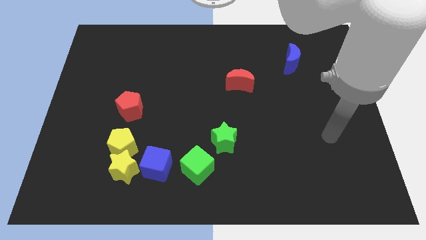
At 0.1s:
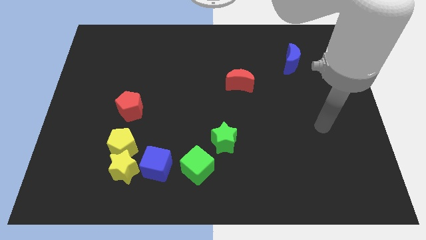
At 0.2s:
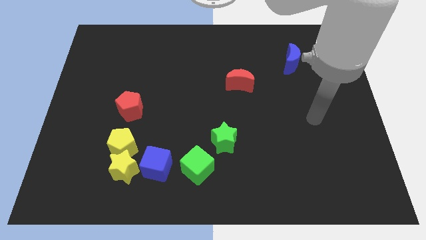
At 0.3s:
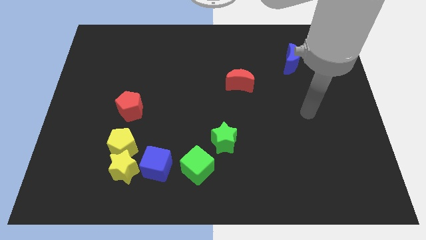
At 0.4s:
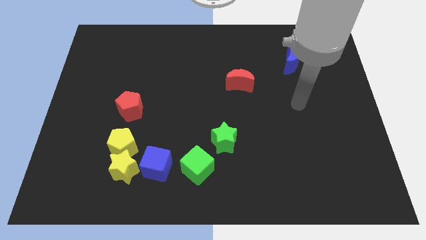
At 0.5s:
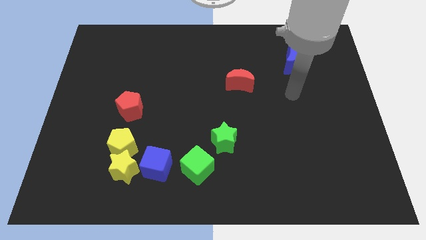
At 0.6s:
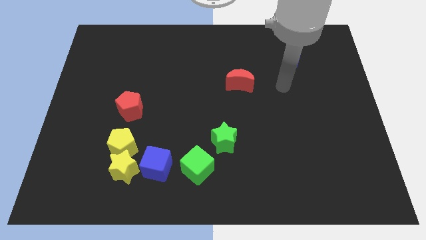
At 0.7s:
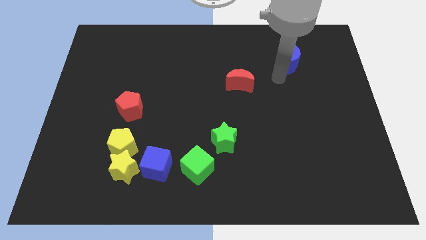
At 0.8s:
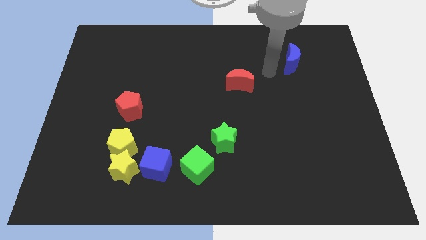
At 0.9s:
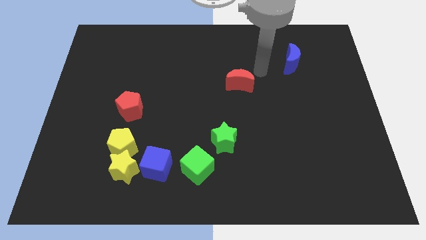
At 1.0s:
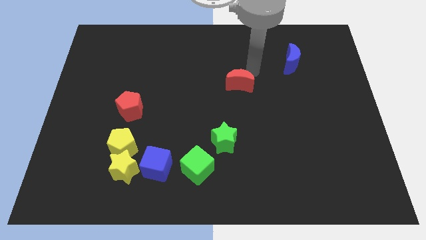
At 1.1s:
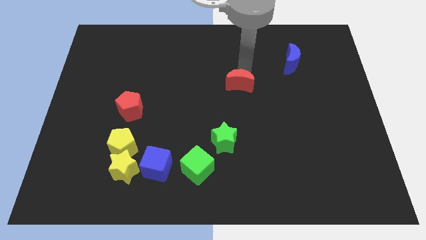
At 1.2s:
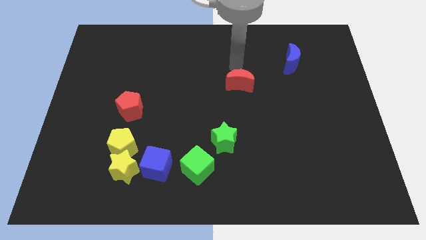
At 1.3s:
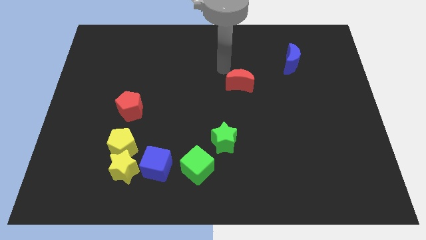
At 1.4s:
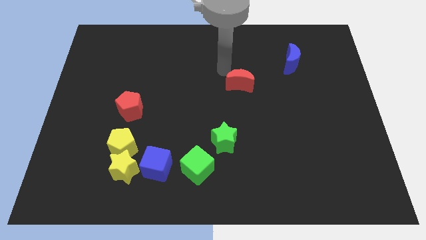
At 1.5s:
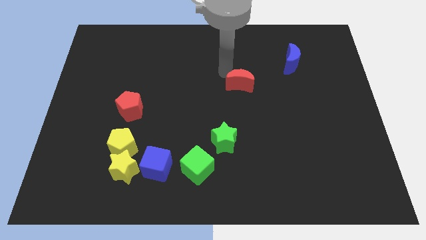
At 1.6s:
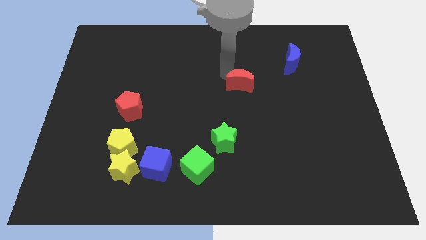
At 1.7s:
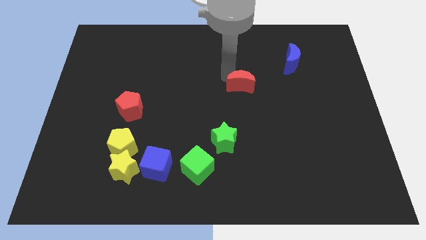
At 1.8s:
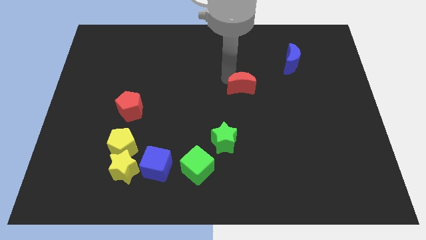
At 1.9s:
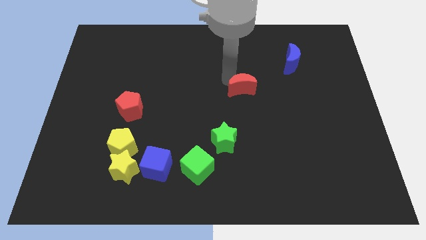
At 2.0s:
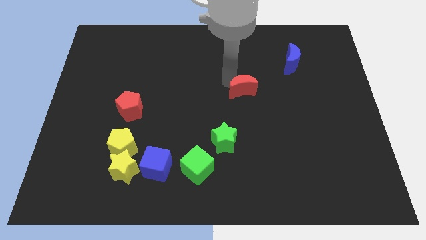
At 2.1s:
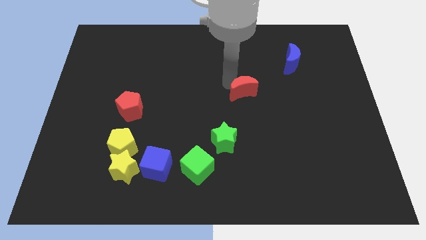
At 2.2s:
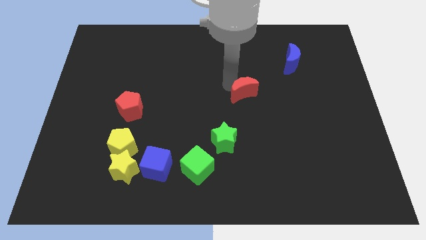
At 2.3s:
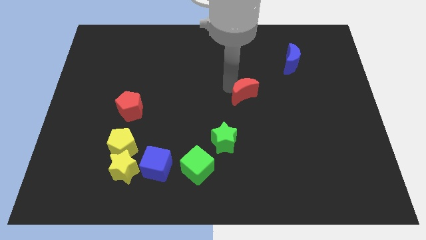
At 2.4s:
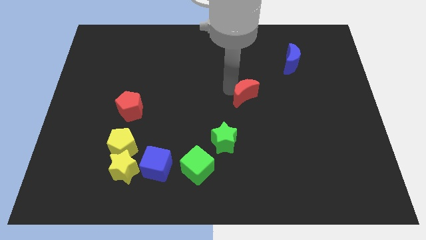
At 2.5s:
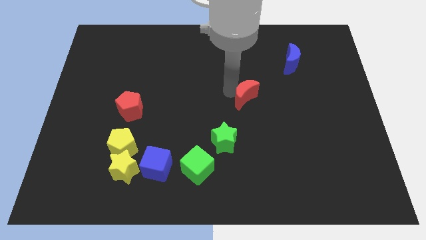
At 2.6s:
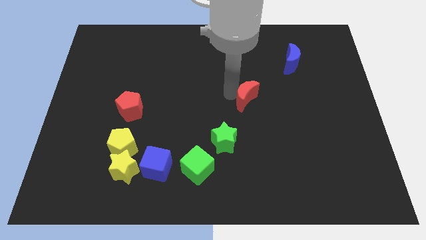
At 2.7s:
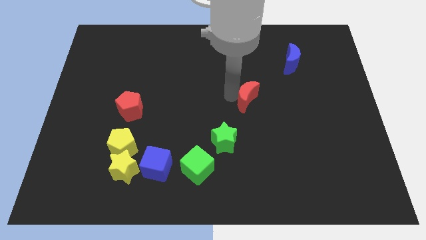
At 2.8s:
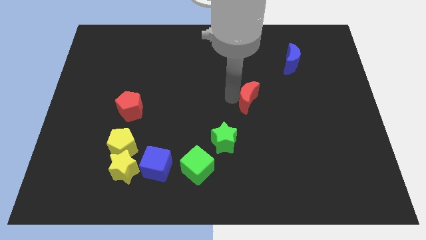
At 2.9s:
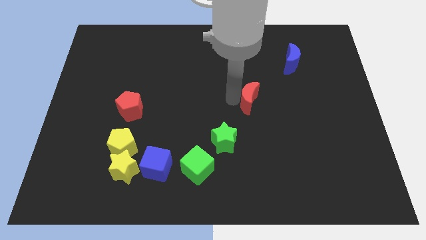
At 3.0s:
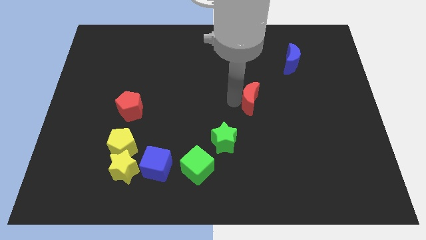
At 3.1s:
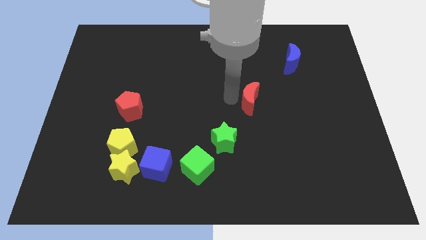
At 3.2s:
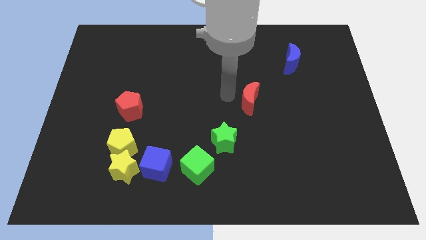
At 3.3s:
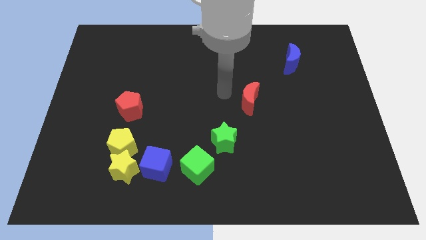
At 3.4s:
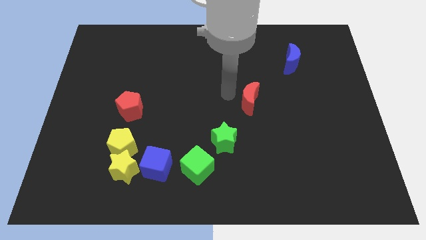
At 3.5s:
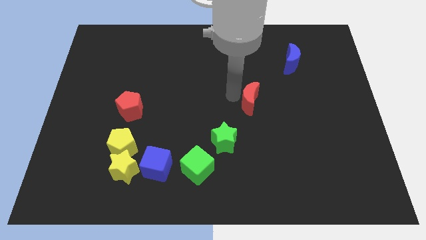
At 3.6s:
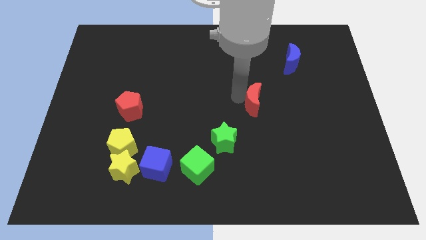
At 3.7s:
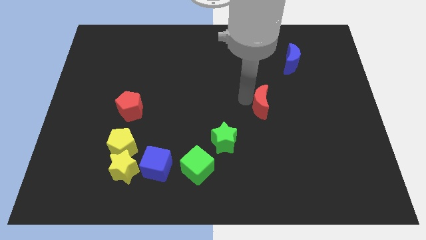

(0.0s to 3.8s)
move the red moon a bit downwards and right diagonally

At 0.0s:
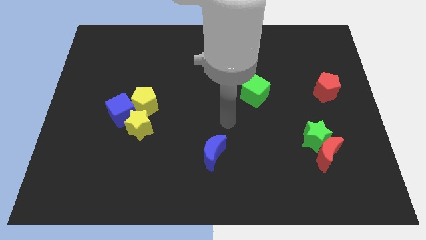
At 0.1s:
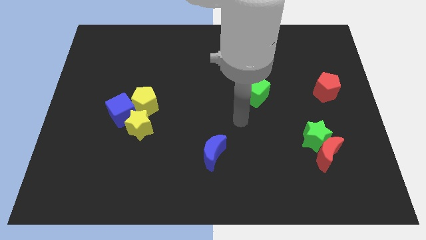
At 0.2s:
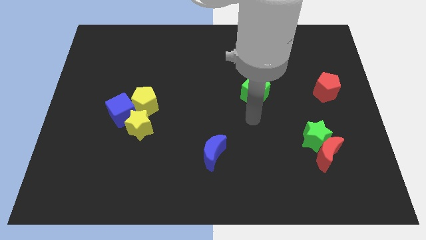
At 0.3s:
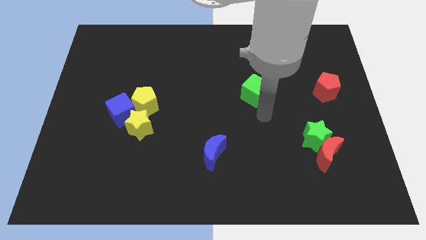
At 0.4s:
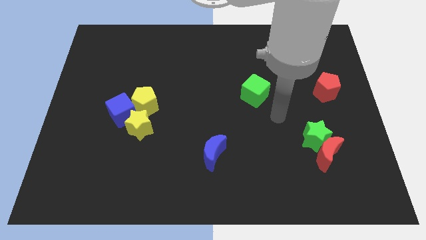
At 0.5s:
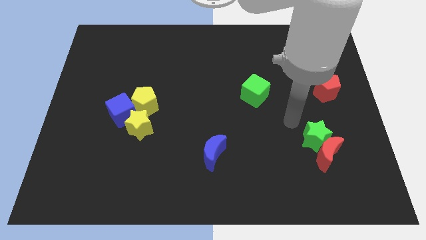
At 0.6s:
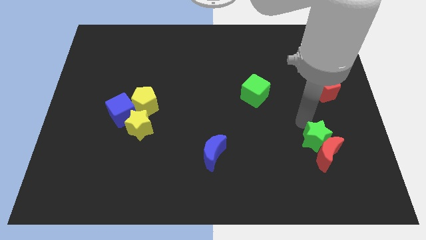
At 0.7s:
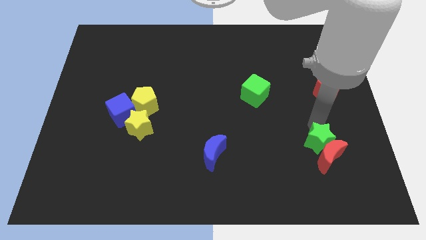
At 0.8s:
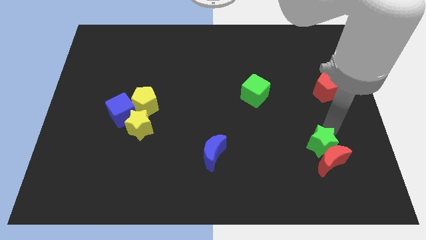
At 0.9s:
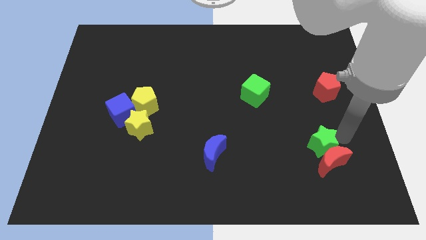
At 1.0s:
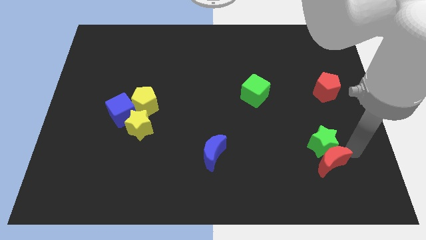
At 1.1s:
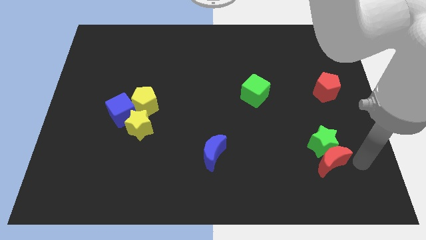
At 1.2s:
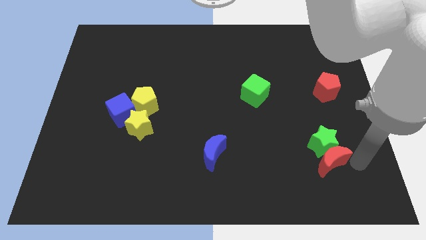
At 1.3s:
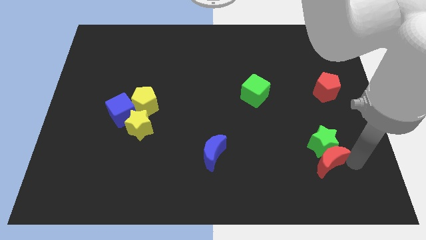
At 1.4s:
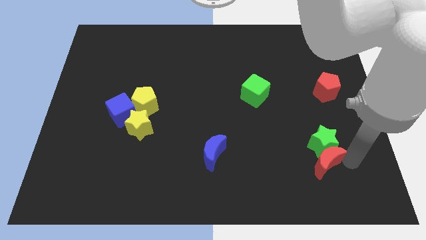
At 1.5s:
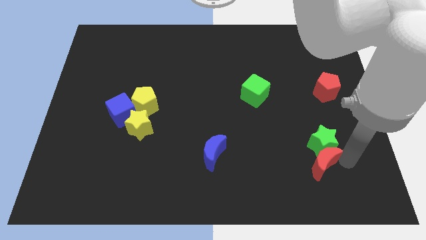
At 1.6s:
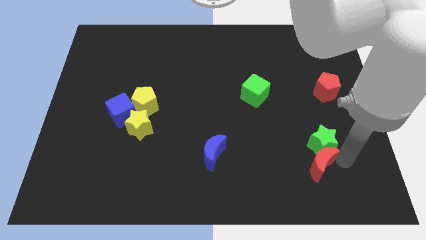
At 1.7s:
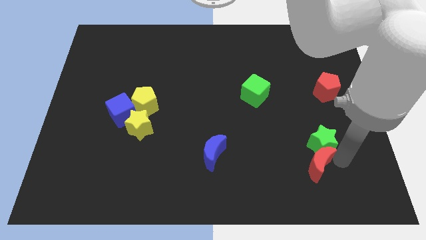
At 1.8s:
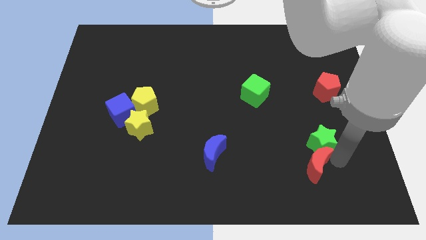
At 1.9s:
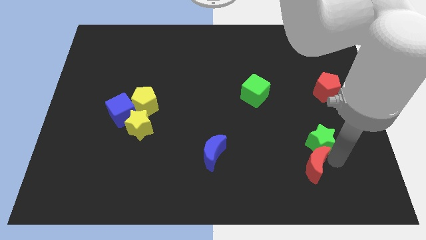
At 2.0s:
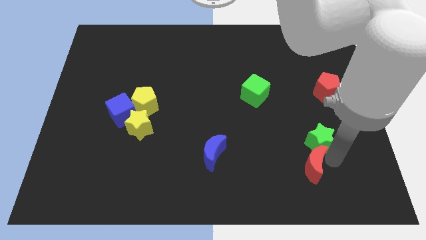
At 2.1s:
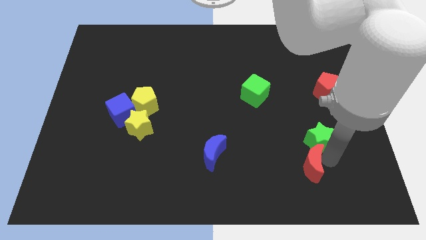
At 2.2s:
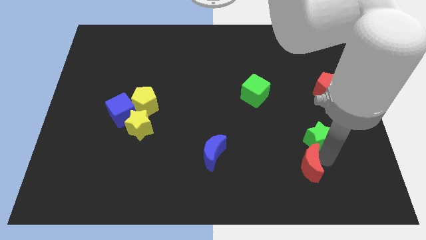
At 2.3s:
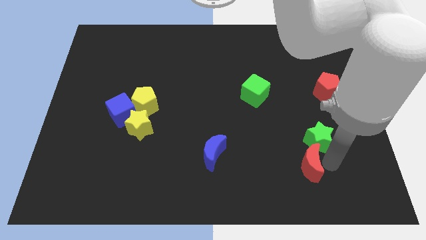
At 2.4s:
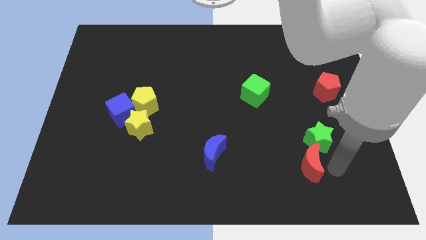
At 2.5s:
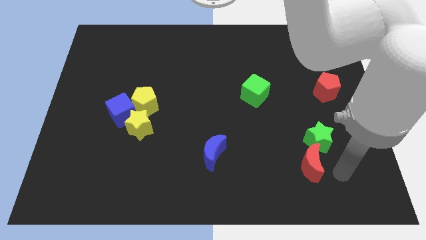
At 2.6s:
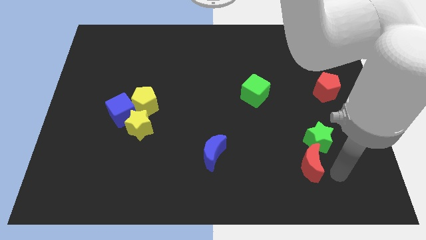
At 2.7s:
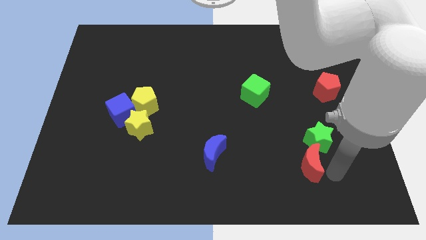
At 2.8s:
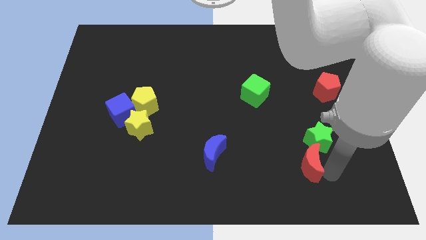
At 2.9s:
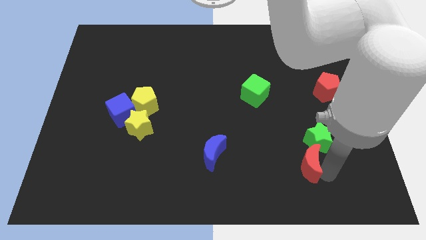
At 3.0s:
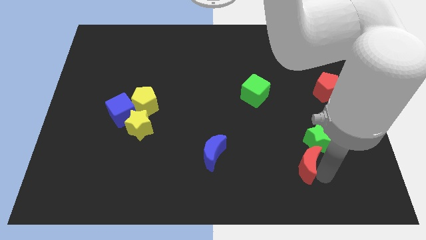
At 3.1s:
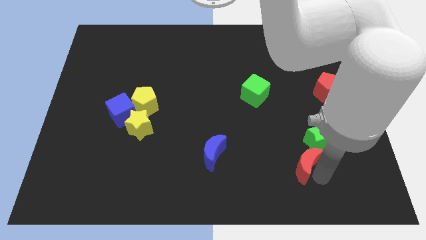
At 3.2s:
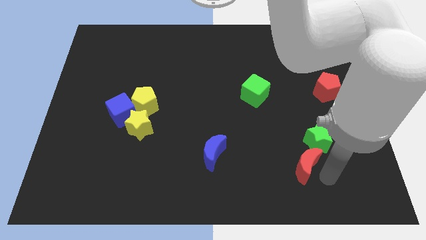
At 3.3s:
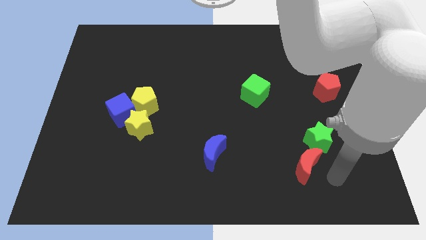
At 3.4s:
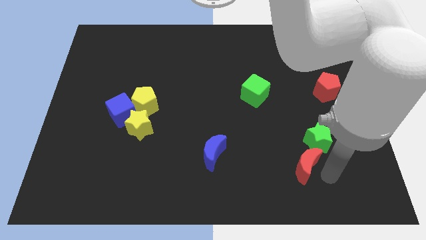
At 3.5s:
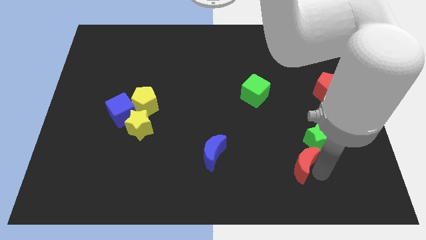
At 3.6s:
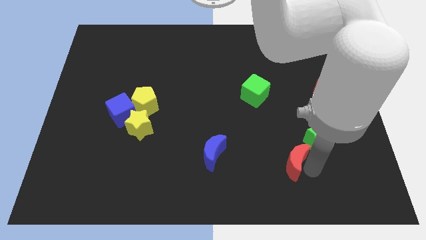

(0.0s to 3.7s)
move the red moon slightly left

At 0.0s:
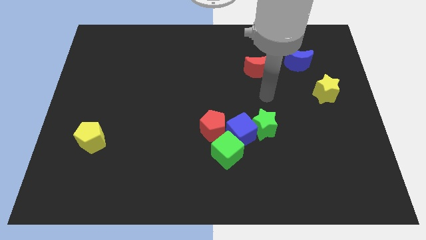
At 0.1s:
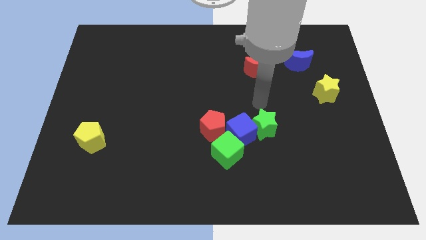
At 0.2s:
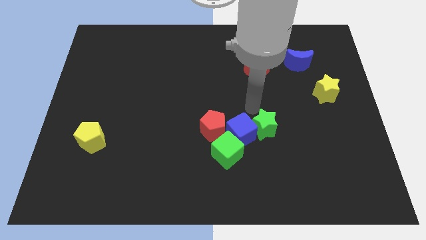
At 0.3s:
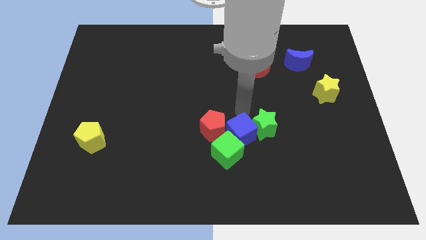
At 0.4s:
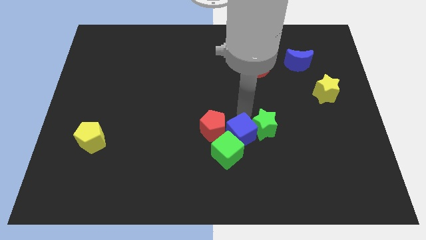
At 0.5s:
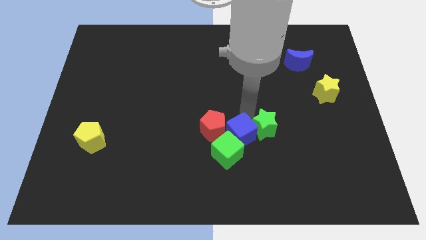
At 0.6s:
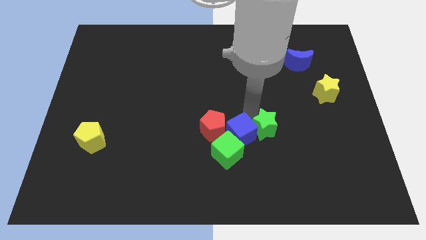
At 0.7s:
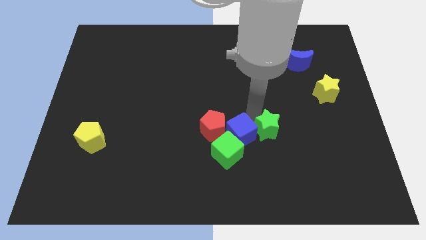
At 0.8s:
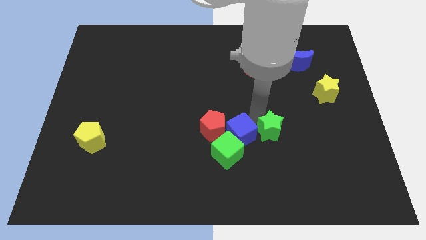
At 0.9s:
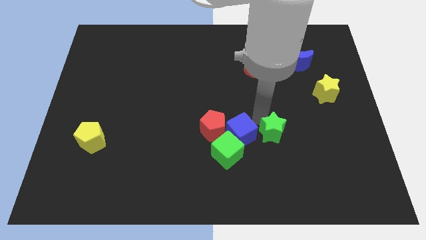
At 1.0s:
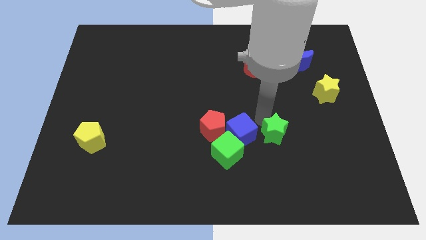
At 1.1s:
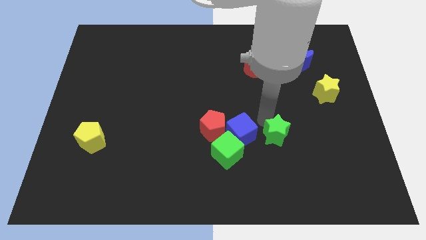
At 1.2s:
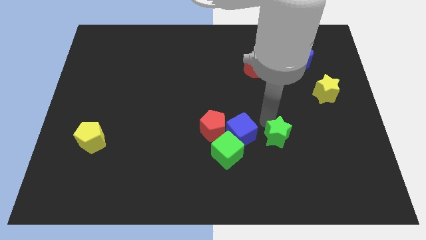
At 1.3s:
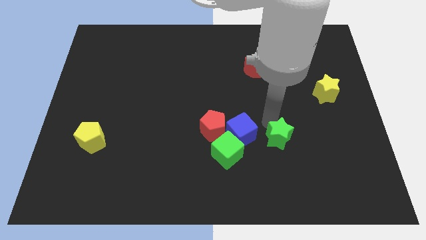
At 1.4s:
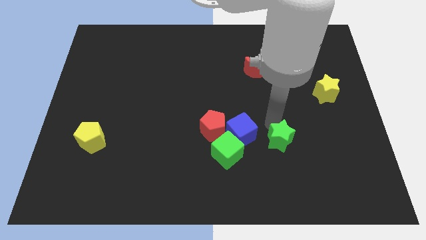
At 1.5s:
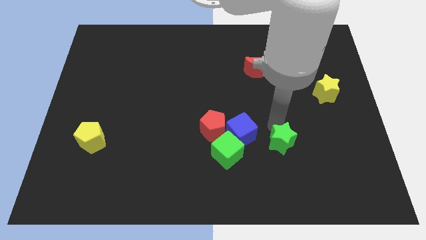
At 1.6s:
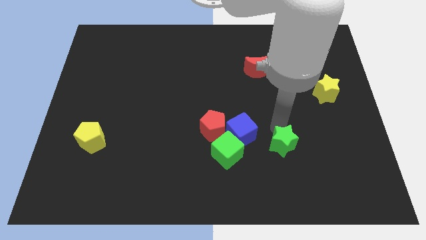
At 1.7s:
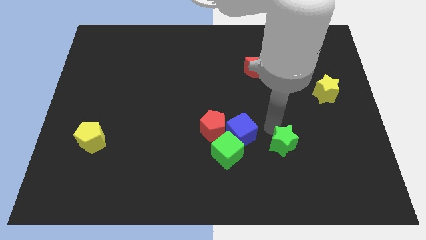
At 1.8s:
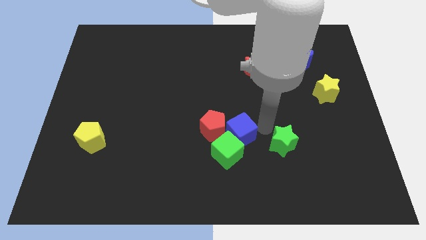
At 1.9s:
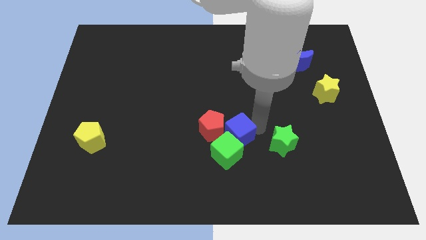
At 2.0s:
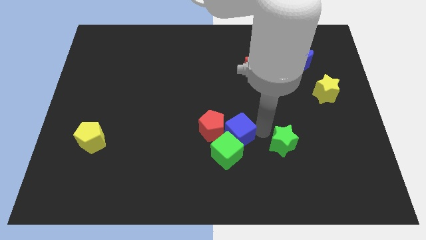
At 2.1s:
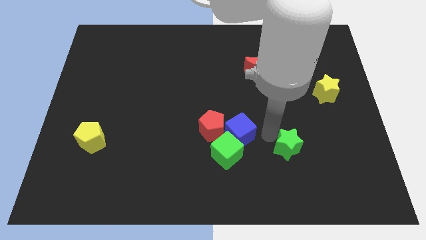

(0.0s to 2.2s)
slide the green star down and to the right diagonally a bit
